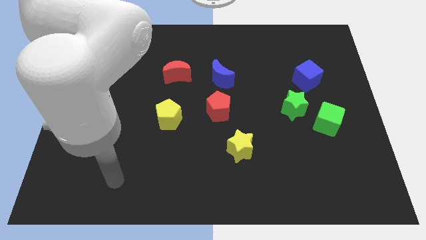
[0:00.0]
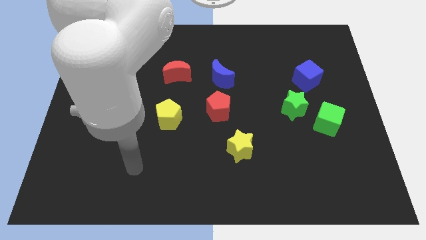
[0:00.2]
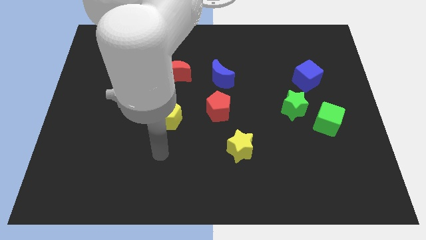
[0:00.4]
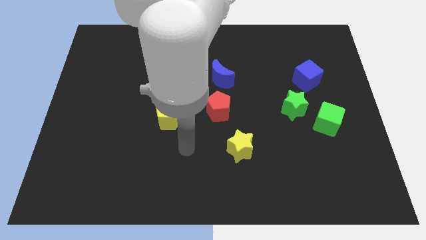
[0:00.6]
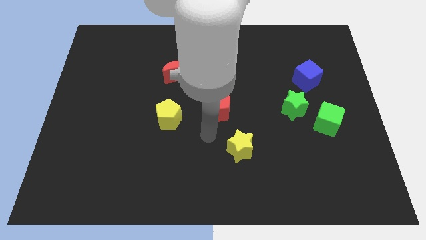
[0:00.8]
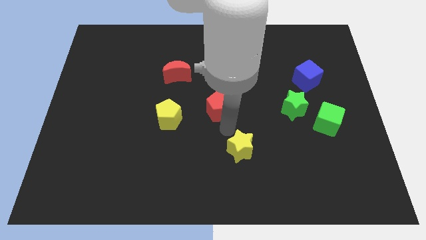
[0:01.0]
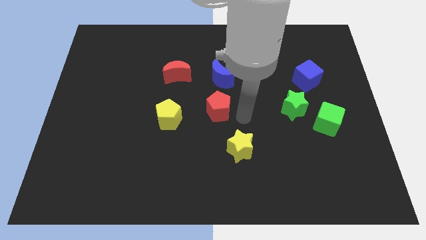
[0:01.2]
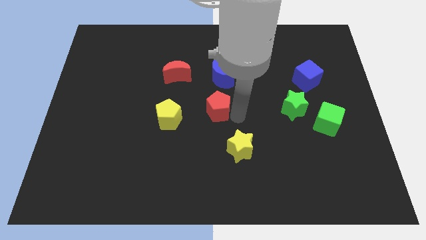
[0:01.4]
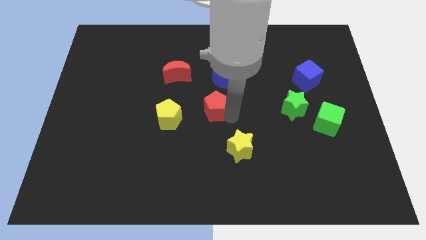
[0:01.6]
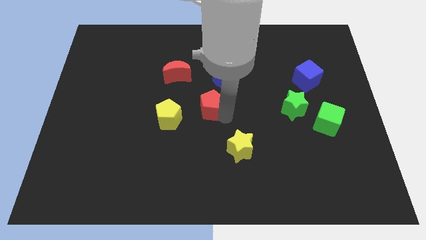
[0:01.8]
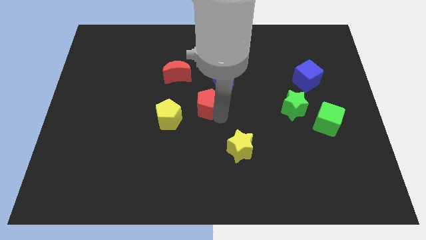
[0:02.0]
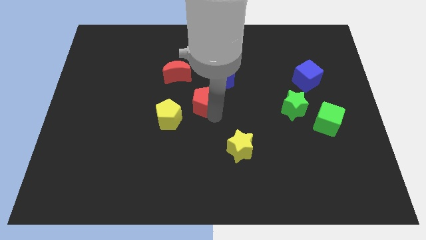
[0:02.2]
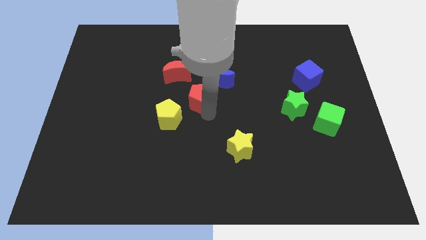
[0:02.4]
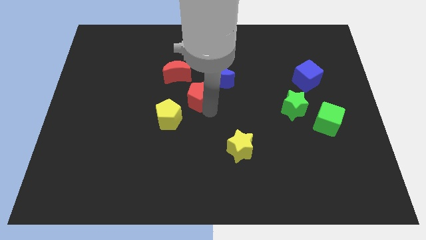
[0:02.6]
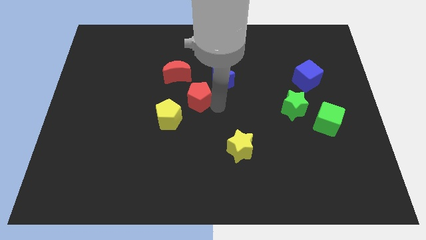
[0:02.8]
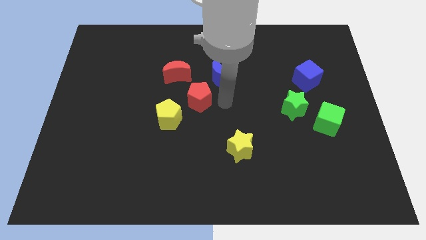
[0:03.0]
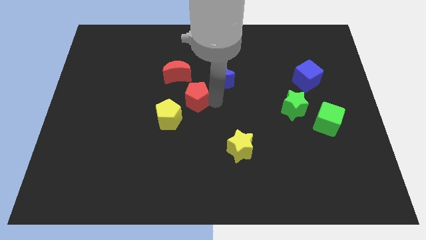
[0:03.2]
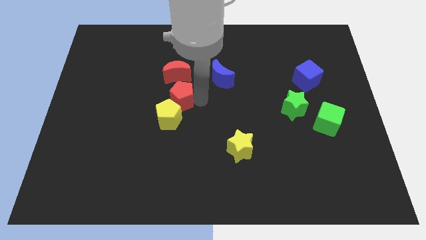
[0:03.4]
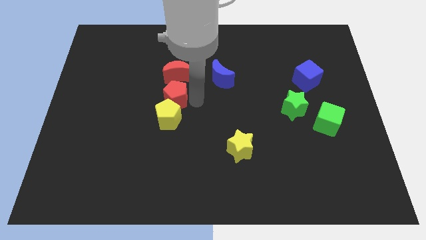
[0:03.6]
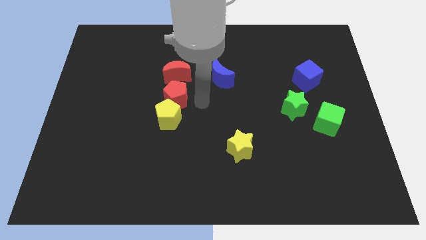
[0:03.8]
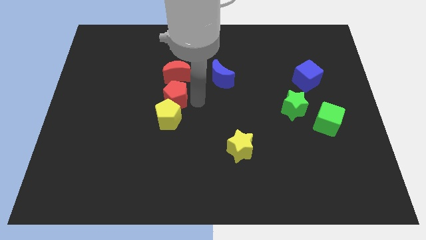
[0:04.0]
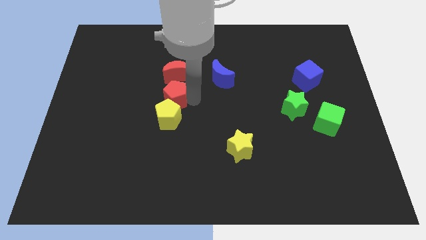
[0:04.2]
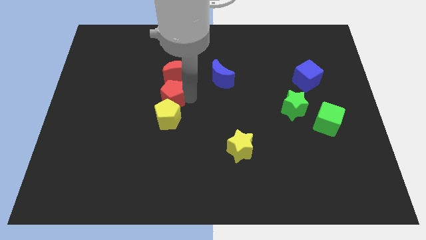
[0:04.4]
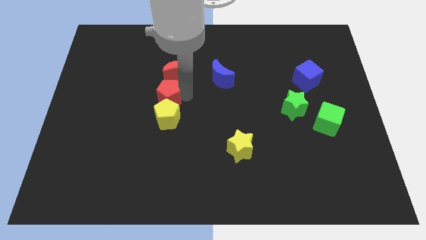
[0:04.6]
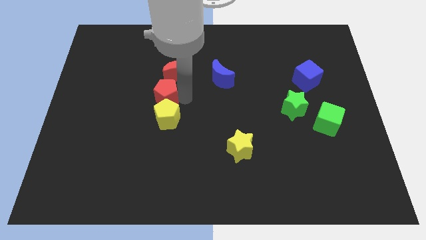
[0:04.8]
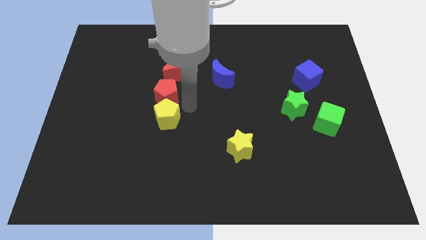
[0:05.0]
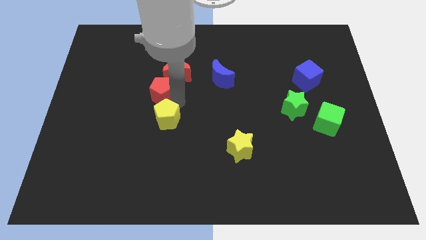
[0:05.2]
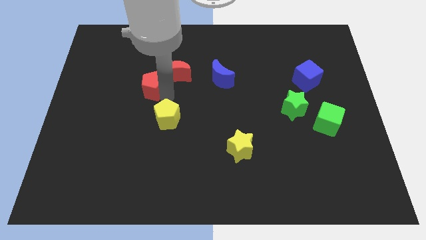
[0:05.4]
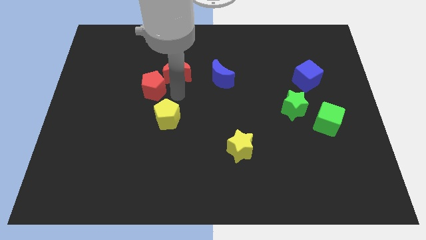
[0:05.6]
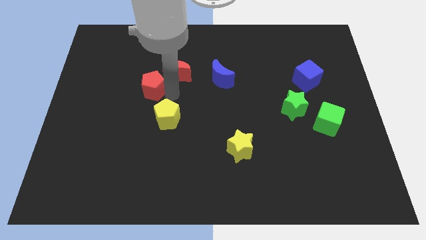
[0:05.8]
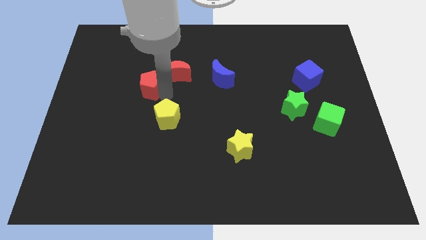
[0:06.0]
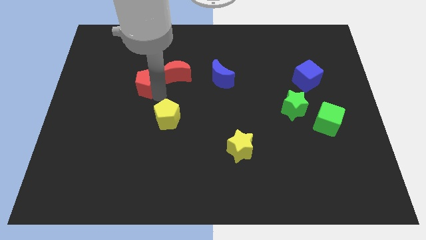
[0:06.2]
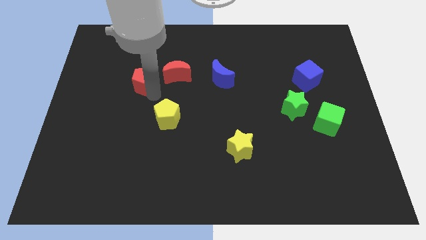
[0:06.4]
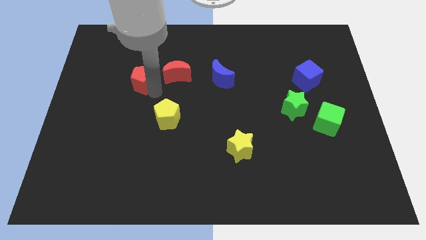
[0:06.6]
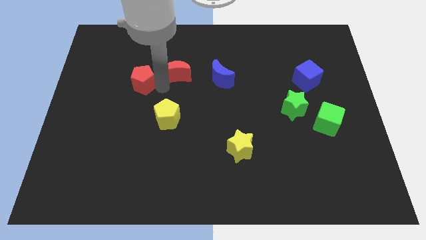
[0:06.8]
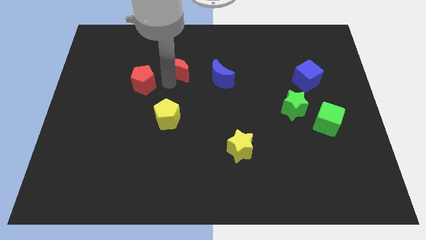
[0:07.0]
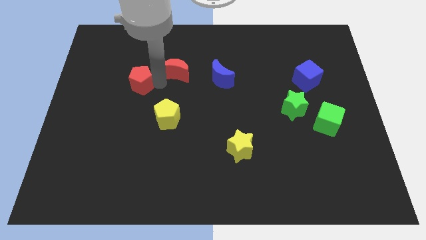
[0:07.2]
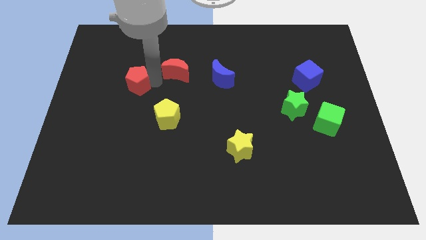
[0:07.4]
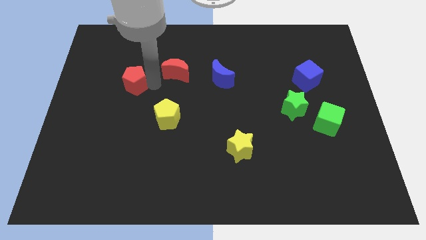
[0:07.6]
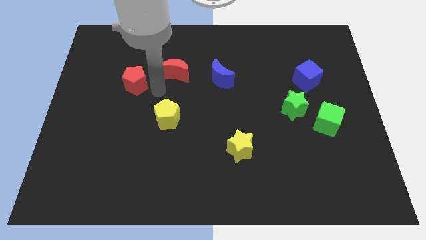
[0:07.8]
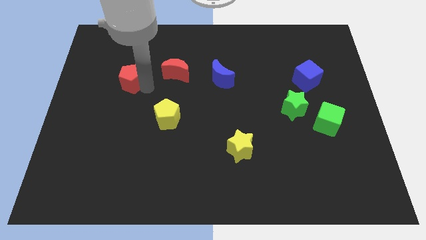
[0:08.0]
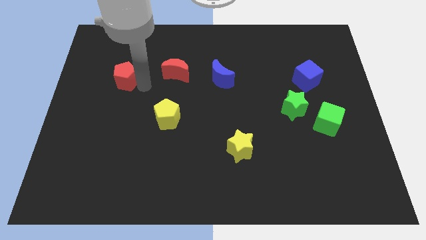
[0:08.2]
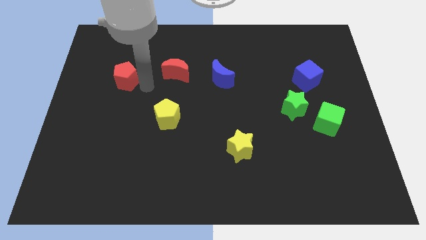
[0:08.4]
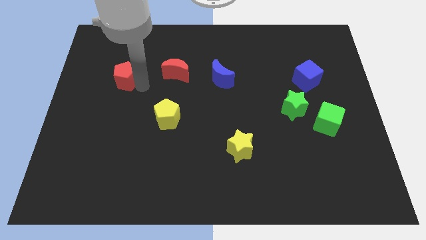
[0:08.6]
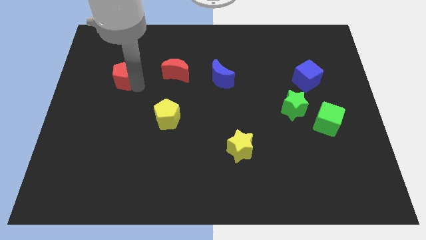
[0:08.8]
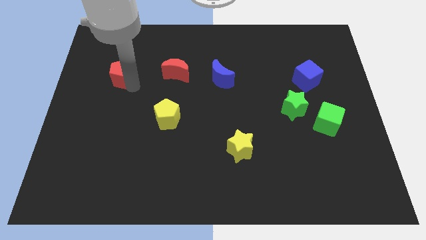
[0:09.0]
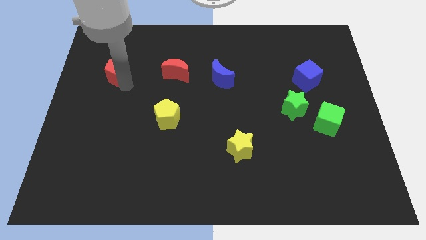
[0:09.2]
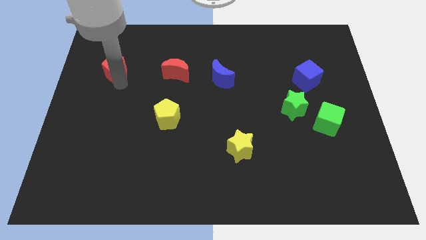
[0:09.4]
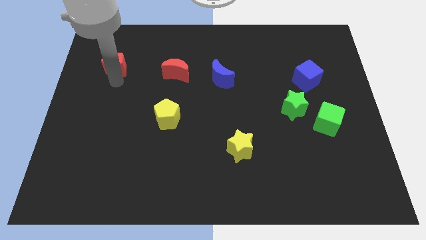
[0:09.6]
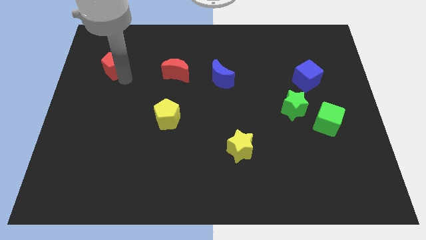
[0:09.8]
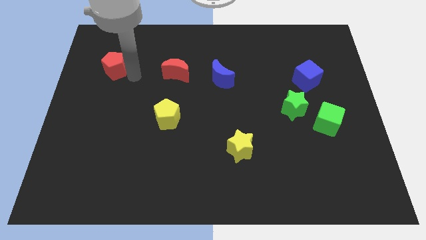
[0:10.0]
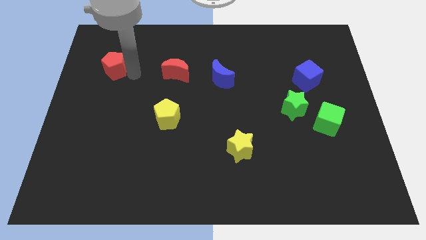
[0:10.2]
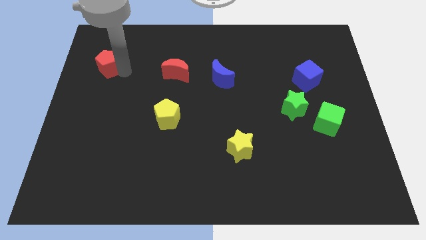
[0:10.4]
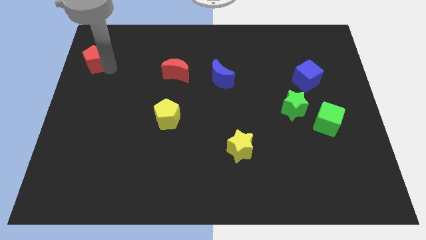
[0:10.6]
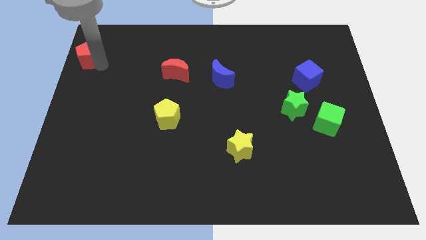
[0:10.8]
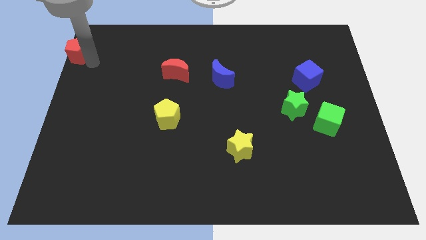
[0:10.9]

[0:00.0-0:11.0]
move the red pentagon to the top left corner
